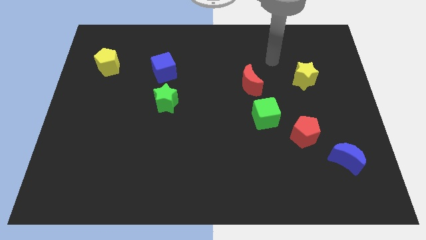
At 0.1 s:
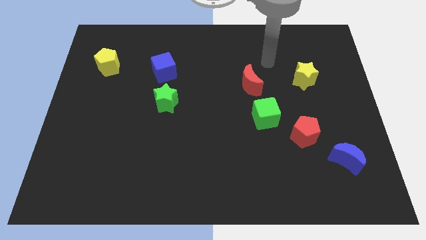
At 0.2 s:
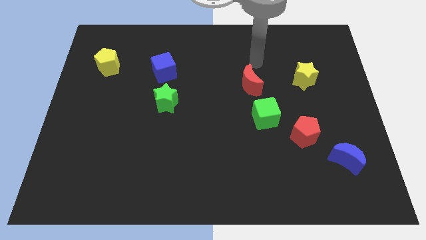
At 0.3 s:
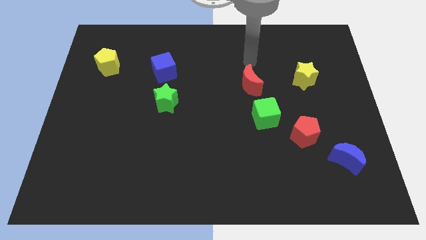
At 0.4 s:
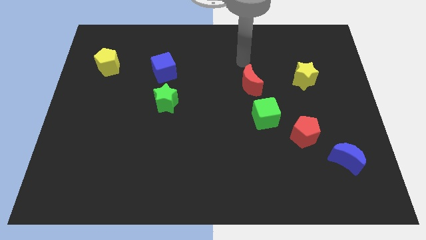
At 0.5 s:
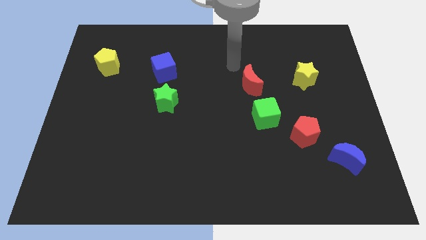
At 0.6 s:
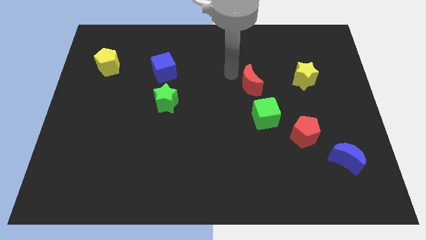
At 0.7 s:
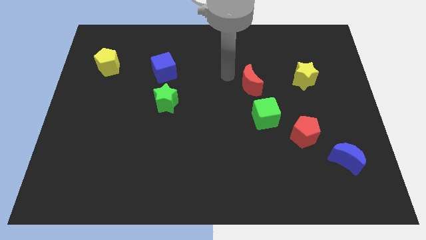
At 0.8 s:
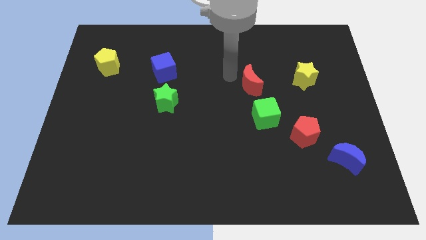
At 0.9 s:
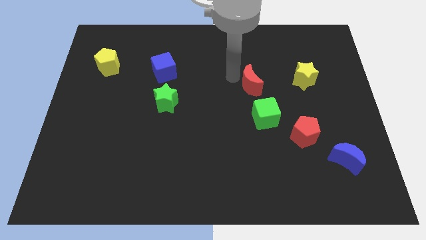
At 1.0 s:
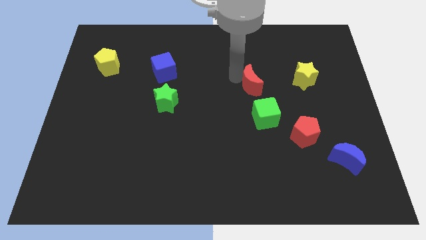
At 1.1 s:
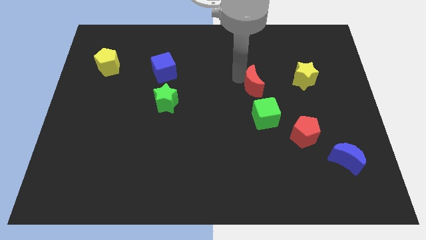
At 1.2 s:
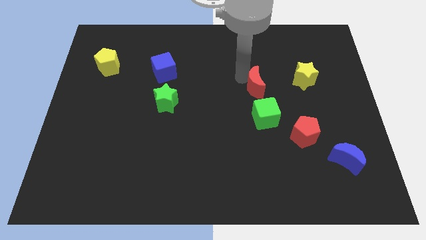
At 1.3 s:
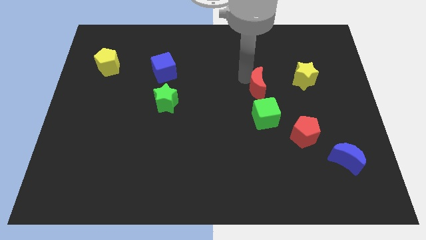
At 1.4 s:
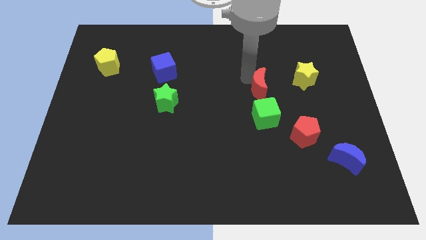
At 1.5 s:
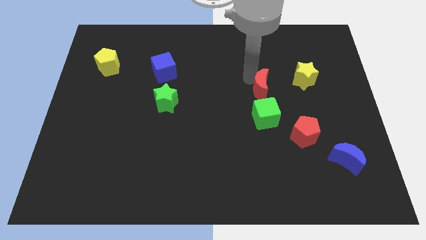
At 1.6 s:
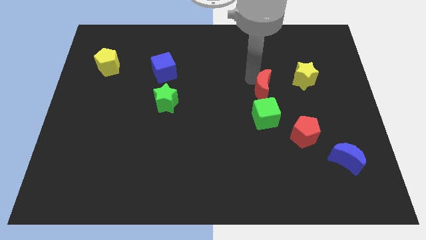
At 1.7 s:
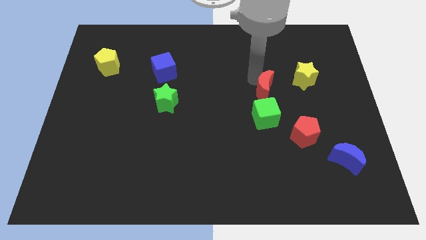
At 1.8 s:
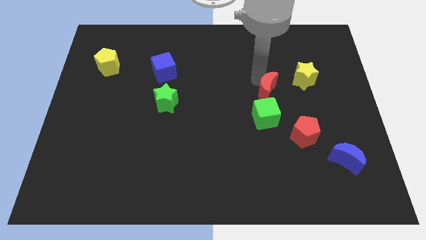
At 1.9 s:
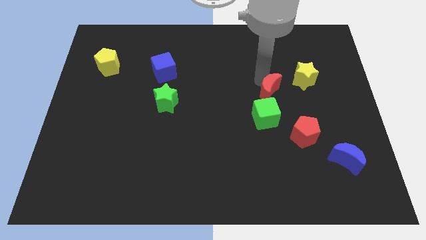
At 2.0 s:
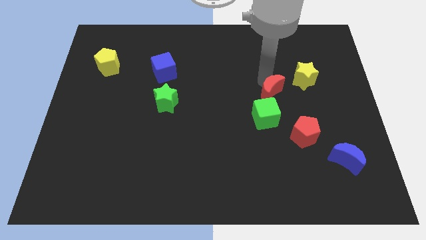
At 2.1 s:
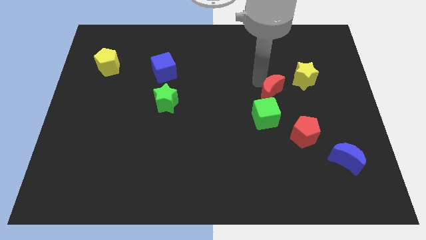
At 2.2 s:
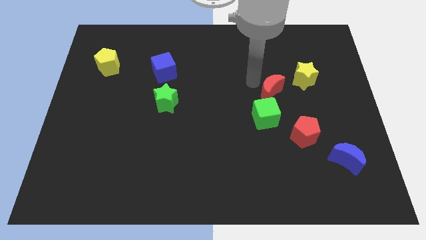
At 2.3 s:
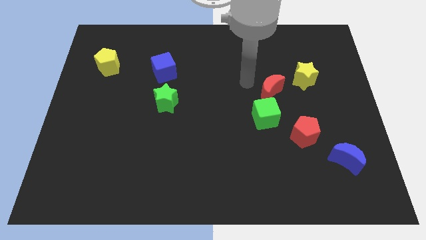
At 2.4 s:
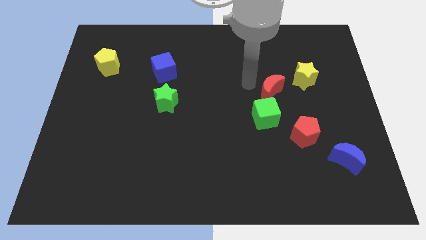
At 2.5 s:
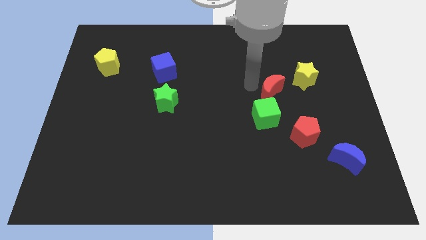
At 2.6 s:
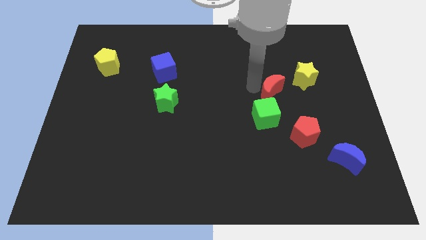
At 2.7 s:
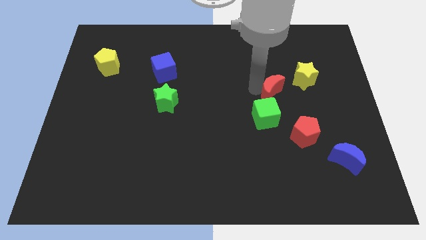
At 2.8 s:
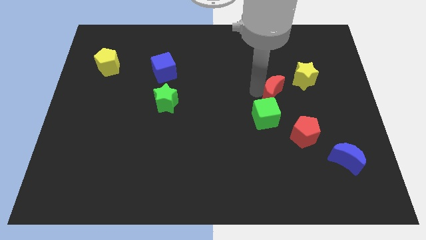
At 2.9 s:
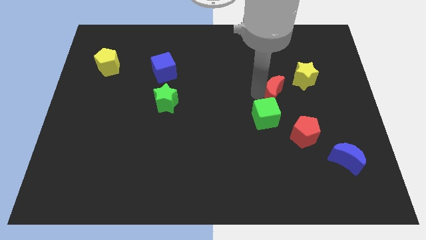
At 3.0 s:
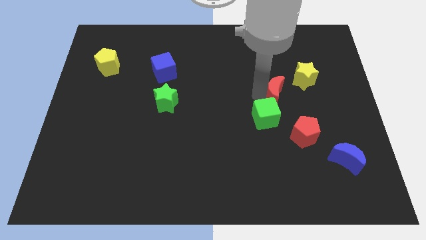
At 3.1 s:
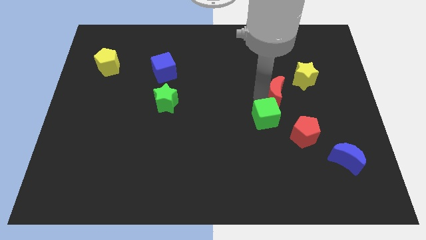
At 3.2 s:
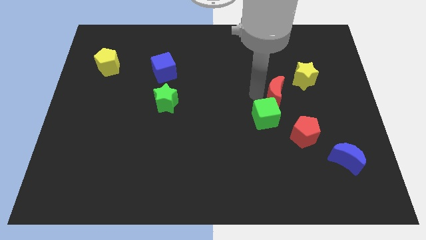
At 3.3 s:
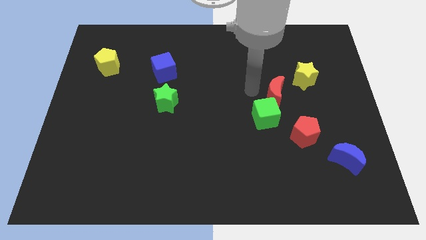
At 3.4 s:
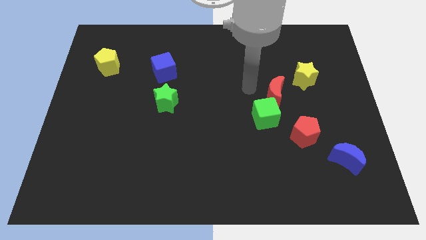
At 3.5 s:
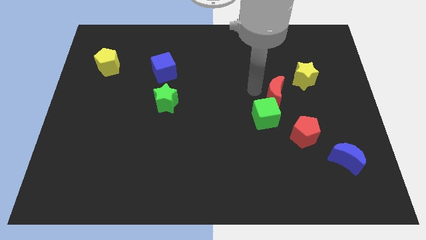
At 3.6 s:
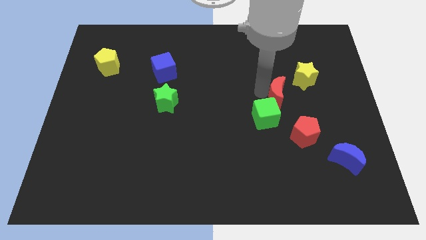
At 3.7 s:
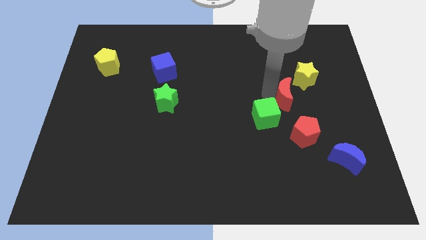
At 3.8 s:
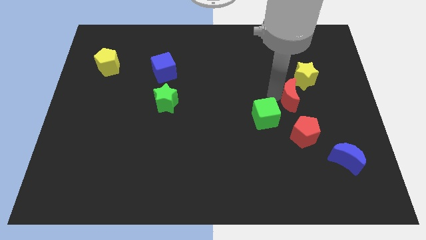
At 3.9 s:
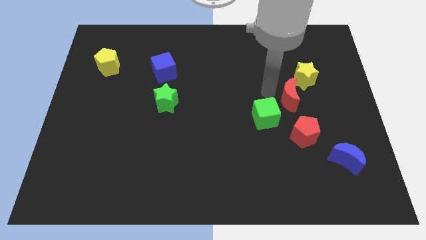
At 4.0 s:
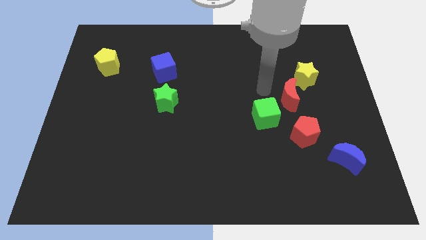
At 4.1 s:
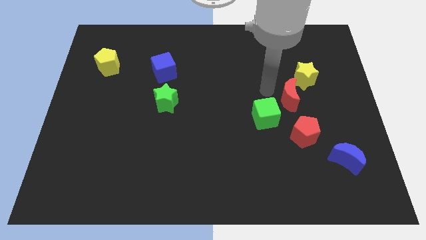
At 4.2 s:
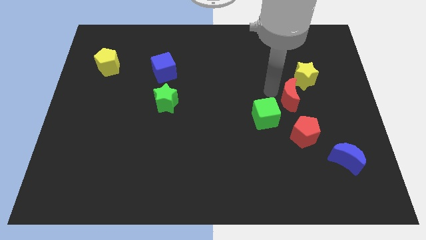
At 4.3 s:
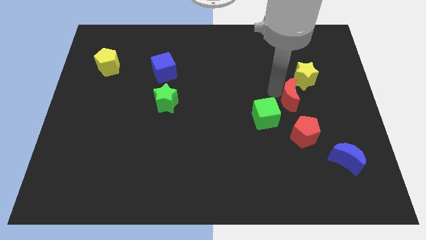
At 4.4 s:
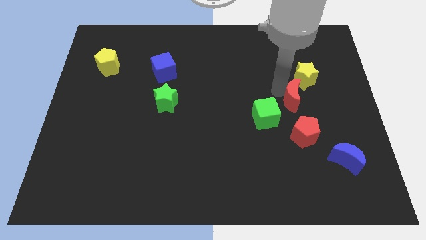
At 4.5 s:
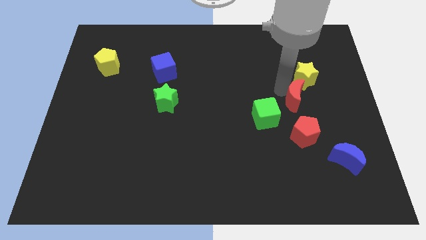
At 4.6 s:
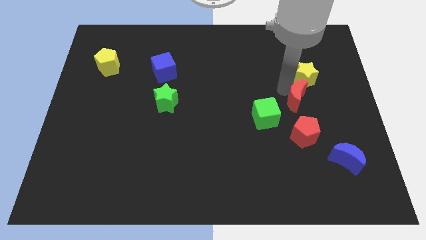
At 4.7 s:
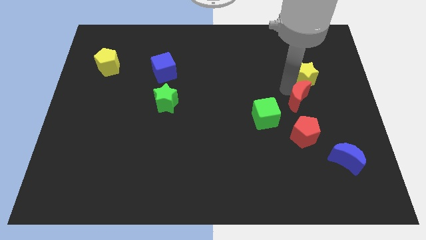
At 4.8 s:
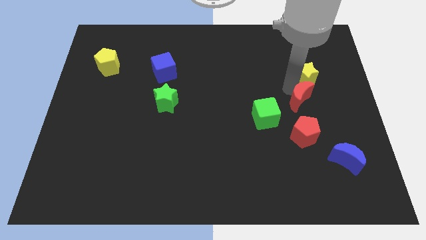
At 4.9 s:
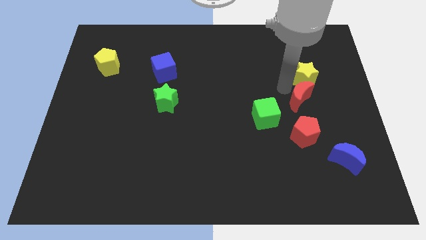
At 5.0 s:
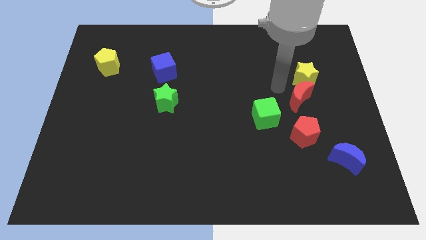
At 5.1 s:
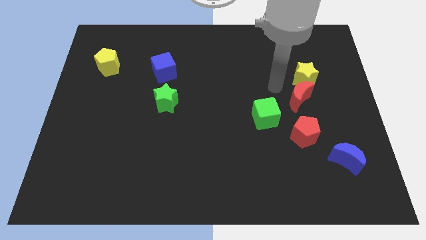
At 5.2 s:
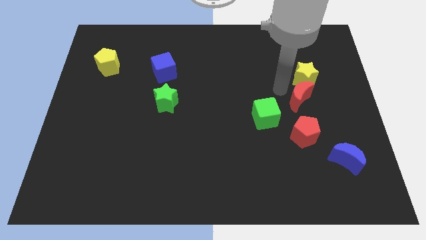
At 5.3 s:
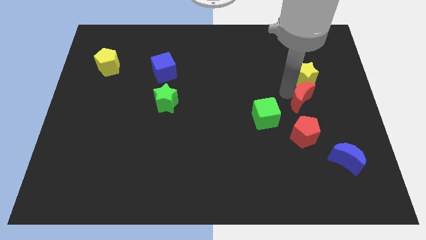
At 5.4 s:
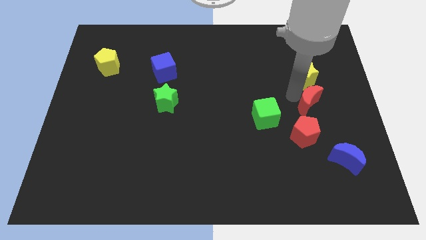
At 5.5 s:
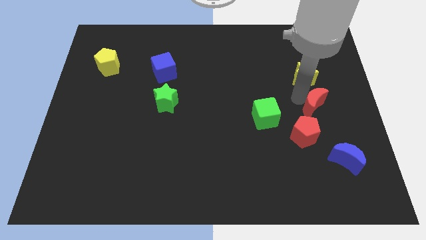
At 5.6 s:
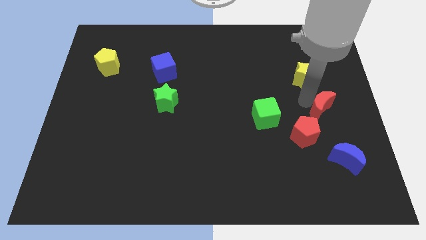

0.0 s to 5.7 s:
move the red moon to the top side of the blue moon
